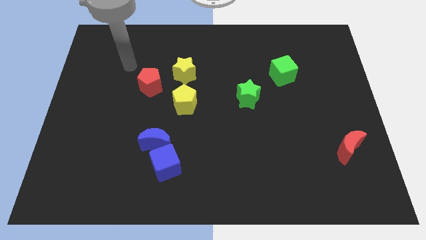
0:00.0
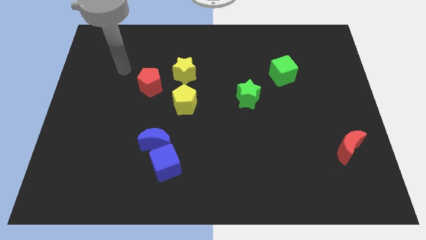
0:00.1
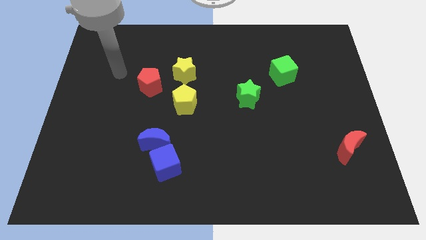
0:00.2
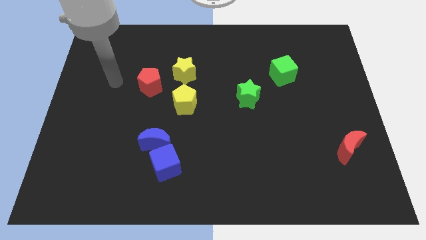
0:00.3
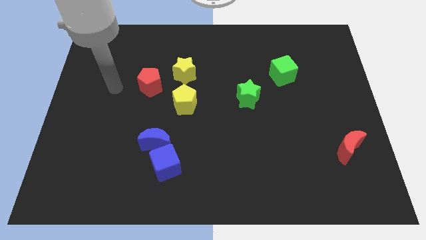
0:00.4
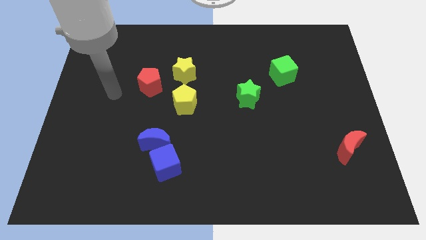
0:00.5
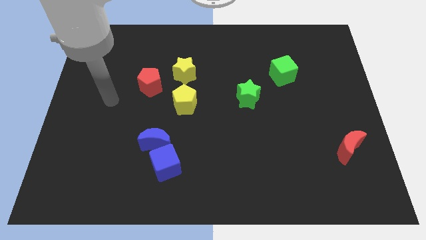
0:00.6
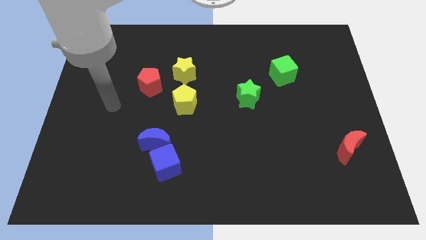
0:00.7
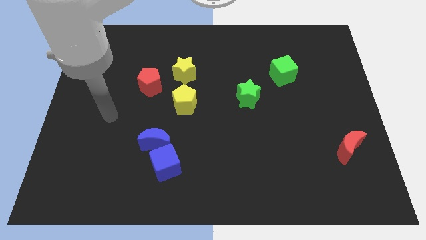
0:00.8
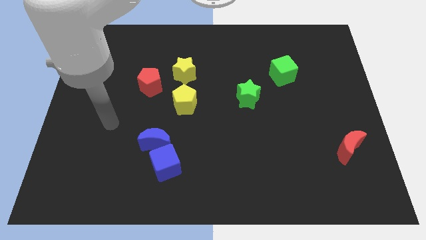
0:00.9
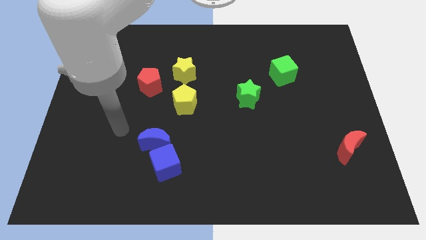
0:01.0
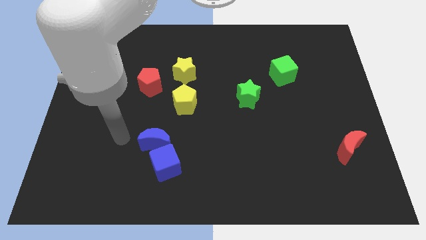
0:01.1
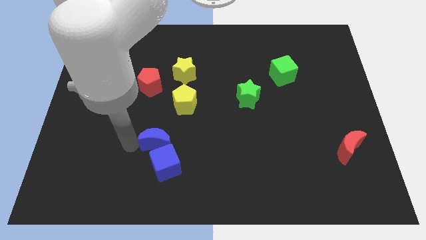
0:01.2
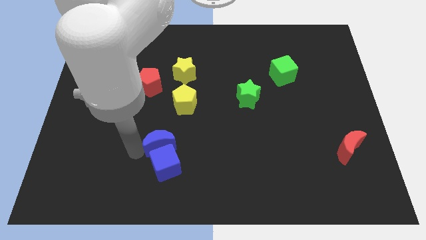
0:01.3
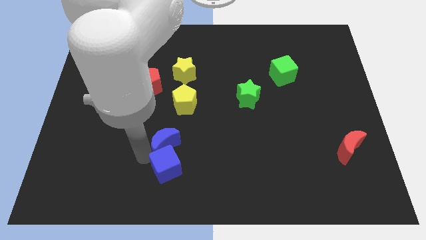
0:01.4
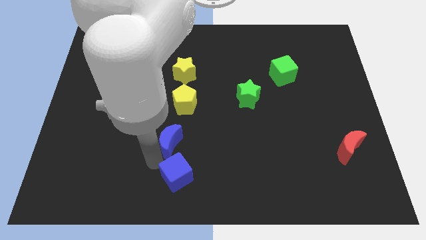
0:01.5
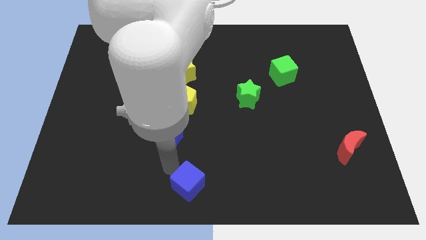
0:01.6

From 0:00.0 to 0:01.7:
pull the blue moon apart from the blue cube

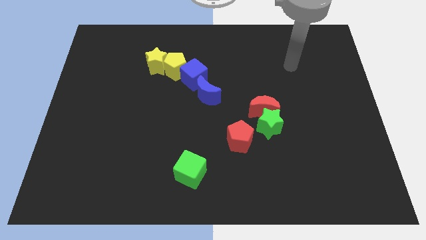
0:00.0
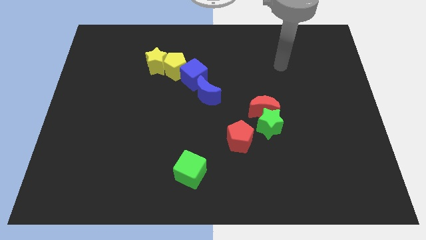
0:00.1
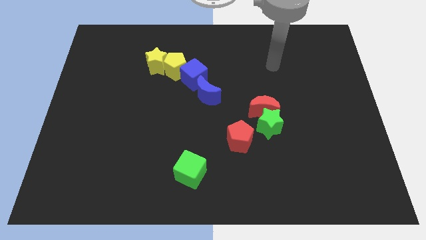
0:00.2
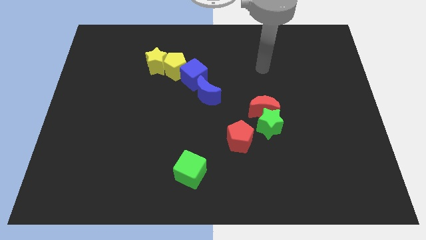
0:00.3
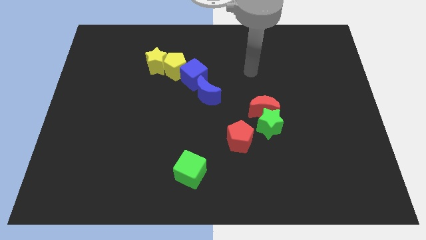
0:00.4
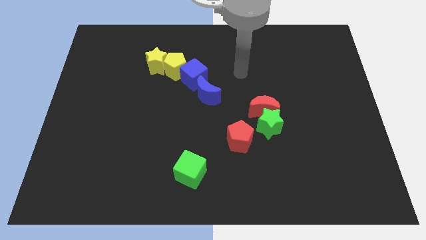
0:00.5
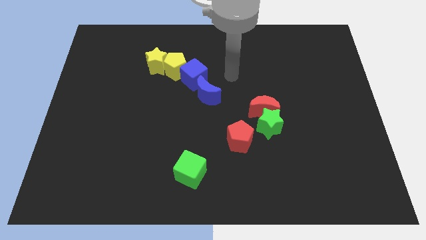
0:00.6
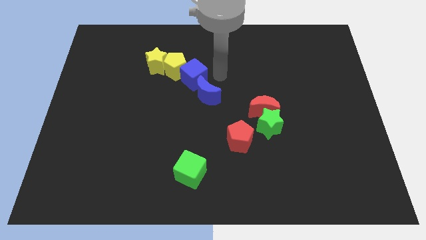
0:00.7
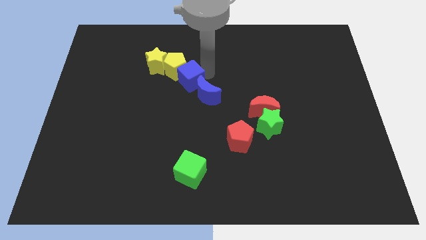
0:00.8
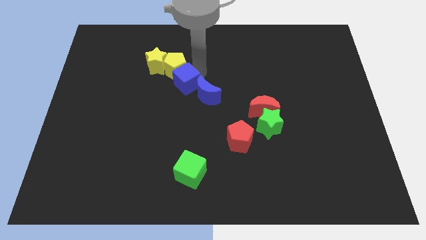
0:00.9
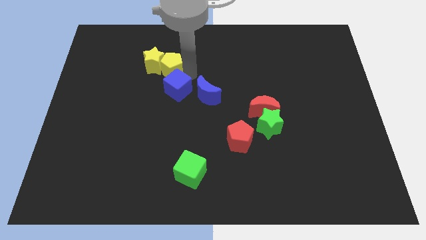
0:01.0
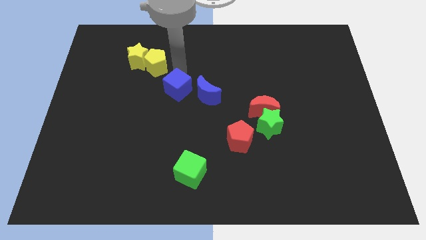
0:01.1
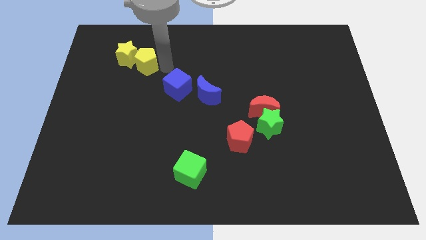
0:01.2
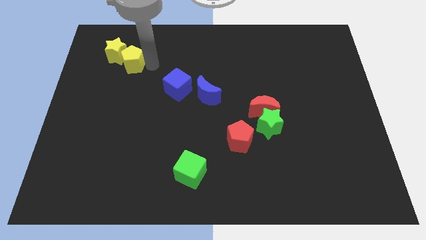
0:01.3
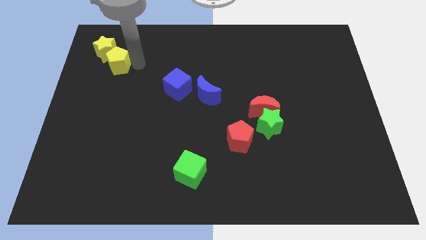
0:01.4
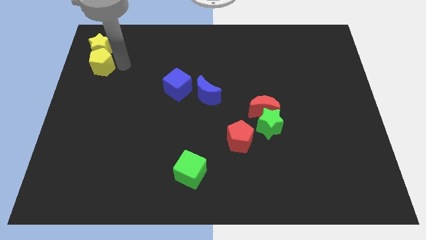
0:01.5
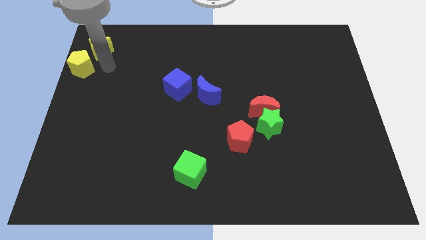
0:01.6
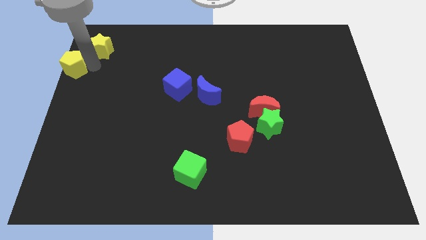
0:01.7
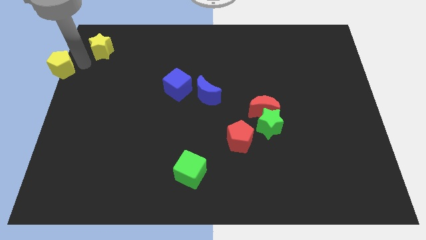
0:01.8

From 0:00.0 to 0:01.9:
move the yellow star away from the yellow pentagon

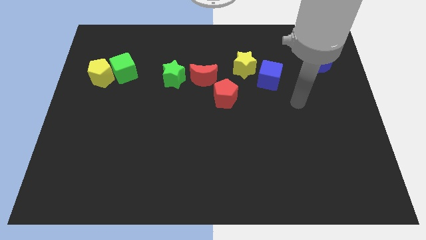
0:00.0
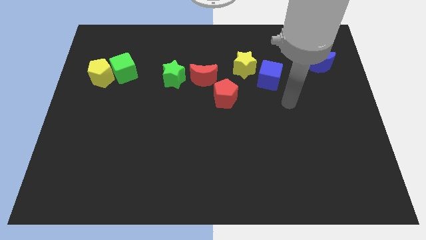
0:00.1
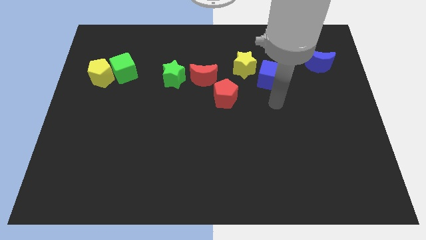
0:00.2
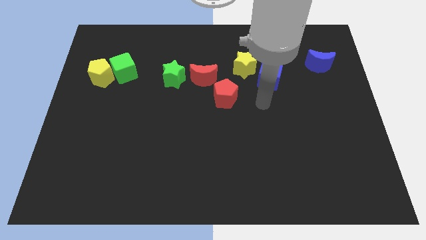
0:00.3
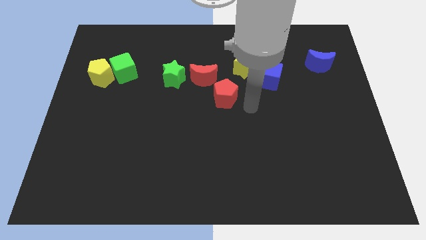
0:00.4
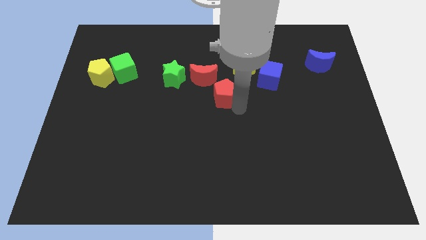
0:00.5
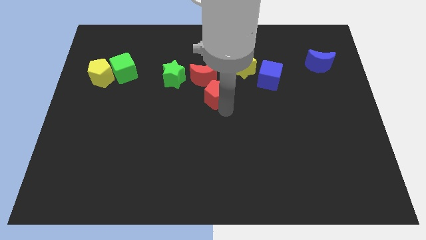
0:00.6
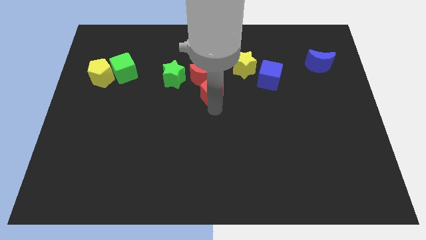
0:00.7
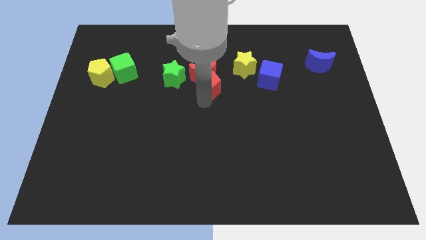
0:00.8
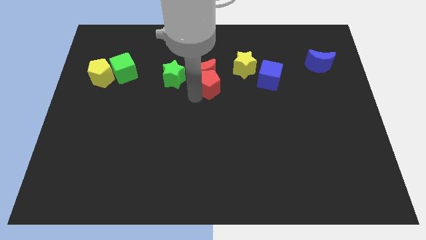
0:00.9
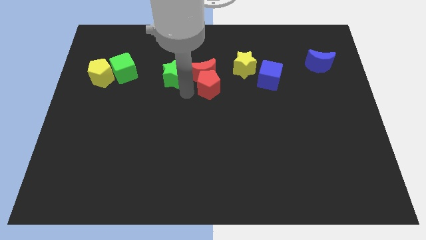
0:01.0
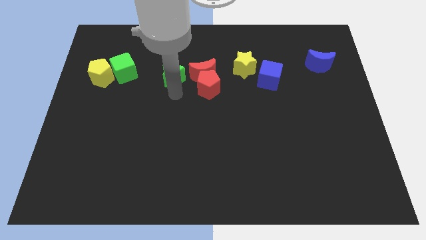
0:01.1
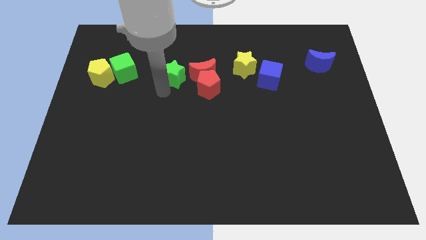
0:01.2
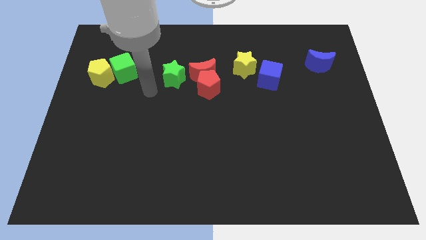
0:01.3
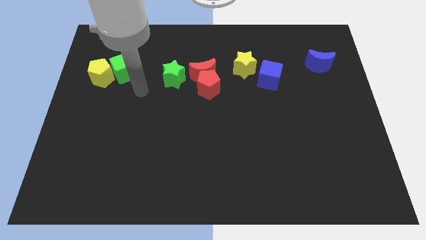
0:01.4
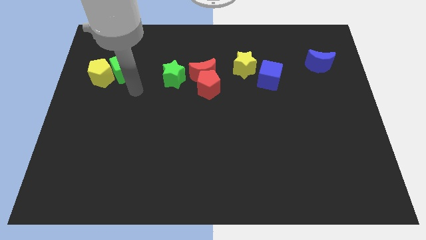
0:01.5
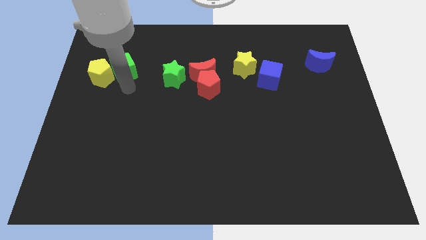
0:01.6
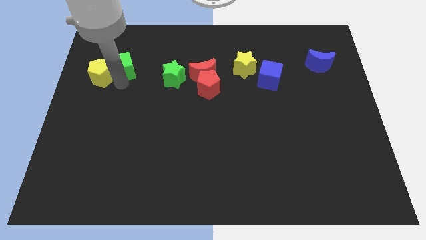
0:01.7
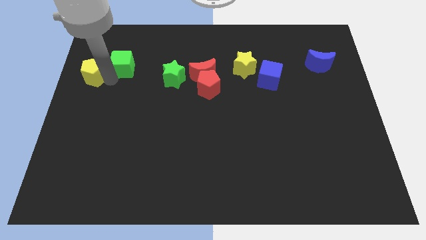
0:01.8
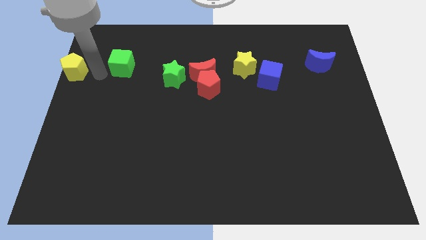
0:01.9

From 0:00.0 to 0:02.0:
separate the green cube from the yellow pentagon

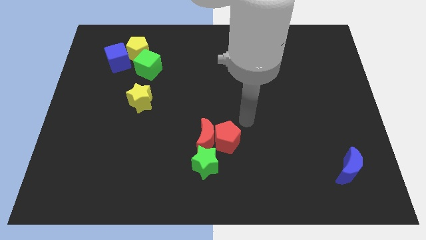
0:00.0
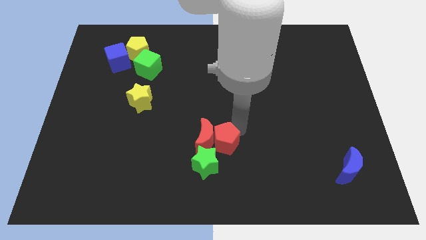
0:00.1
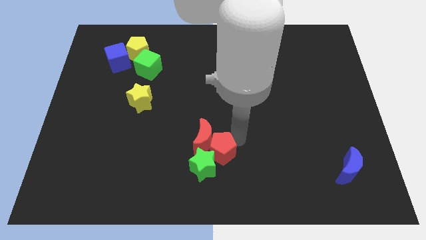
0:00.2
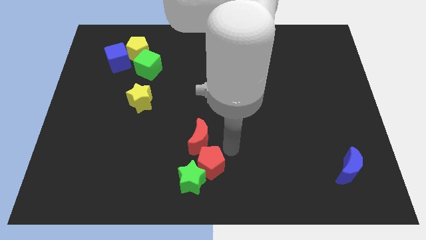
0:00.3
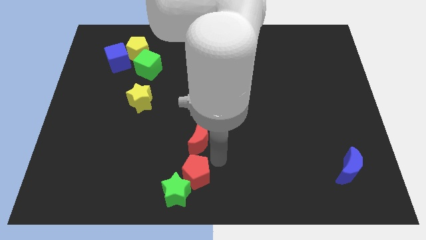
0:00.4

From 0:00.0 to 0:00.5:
pull the red moon apart from the red pentagon and green star

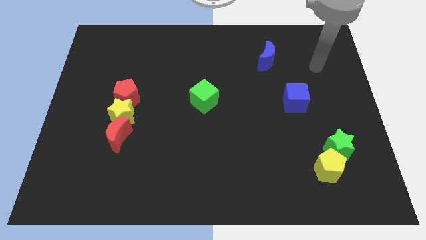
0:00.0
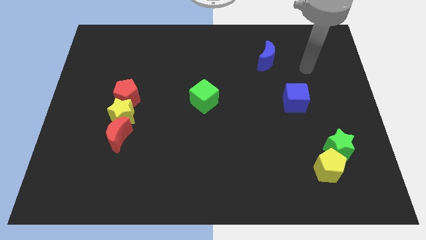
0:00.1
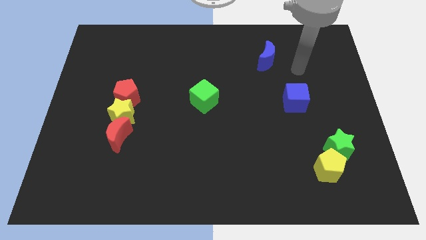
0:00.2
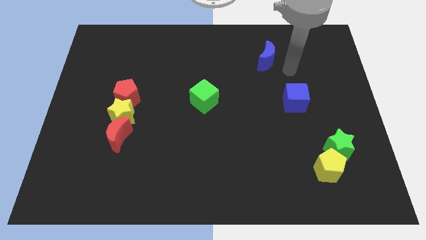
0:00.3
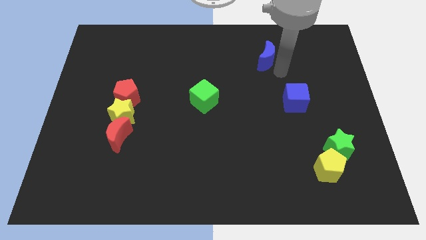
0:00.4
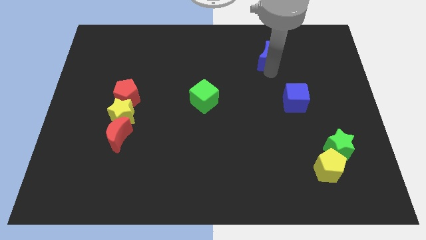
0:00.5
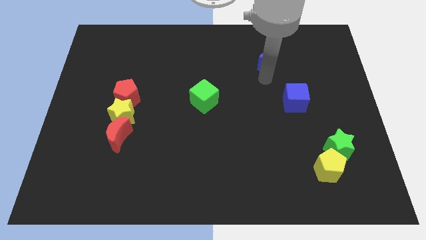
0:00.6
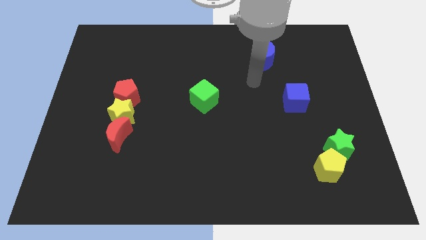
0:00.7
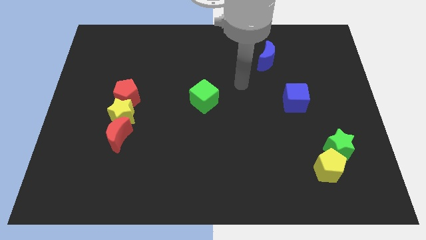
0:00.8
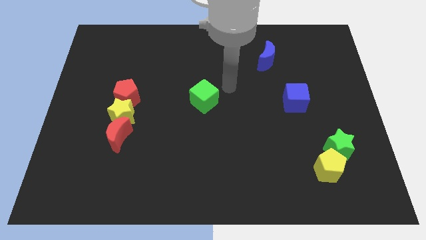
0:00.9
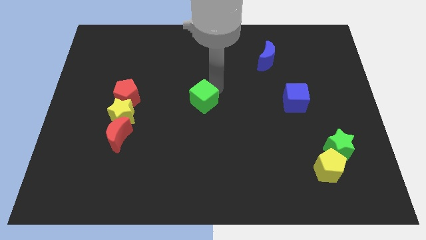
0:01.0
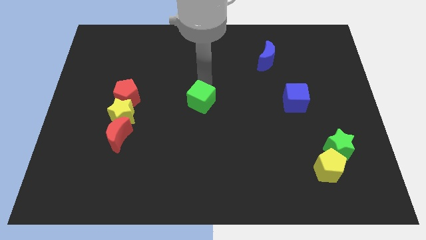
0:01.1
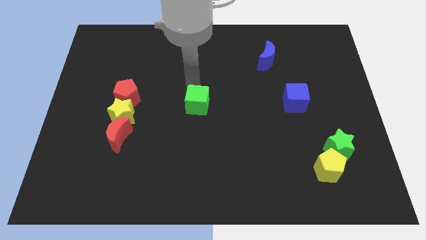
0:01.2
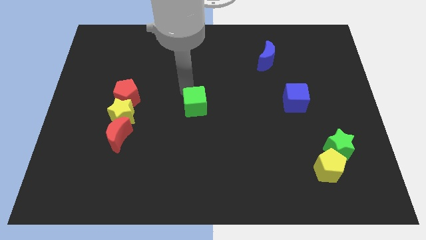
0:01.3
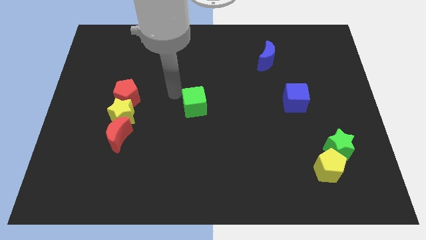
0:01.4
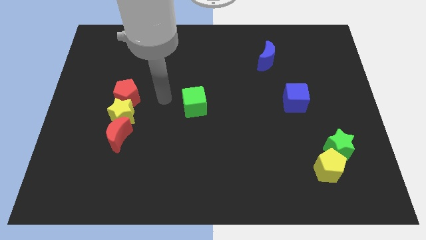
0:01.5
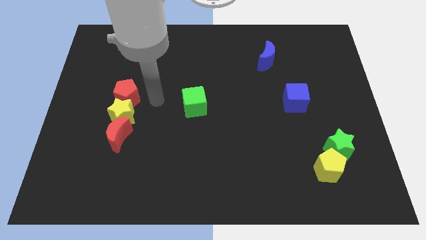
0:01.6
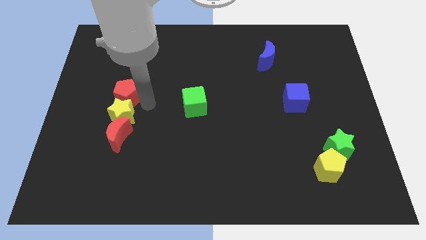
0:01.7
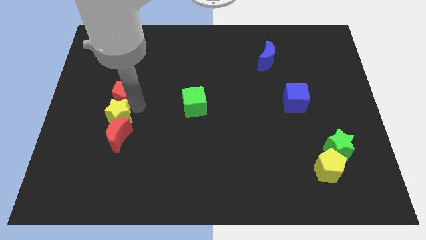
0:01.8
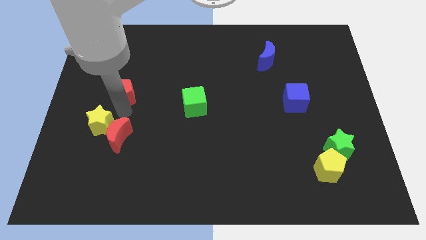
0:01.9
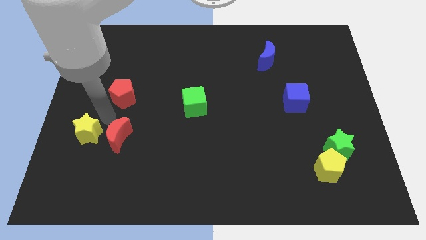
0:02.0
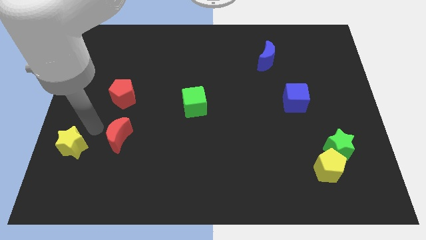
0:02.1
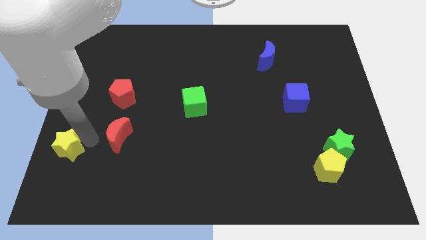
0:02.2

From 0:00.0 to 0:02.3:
pull the red moon apart from the yellow star

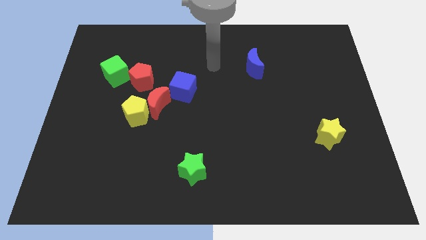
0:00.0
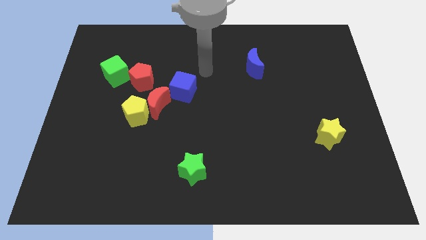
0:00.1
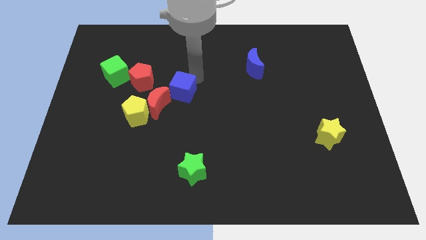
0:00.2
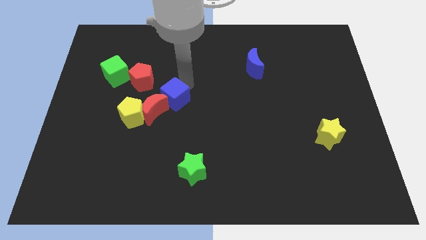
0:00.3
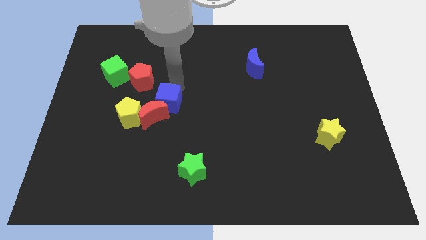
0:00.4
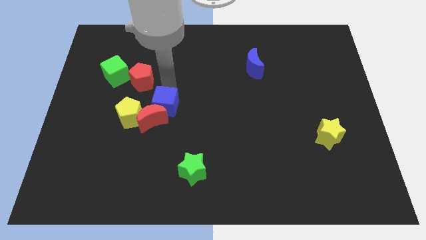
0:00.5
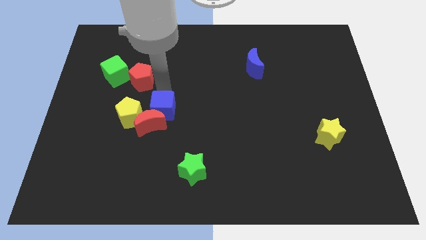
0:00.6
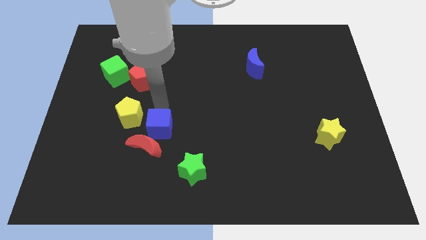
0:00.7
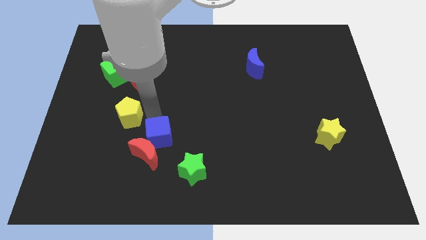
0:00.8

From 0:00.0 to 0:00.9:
move the yellow pentagon away from the red moon
